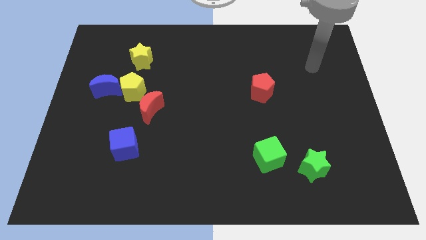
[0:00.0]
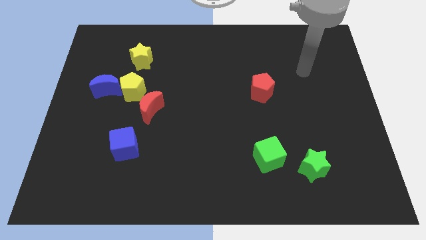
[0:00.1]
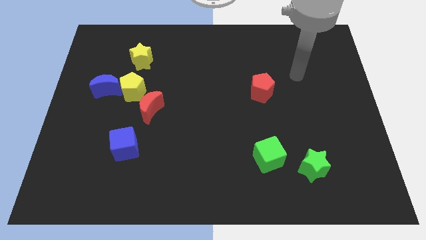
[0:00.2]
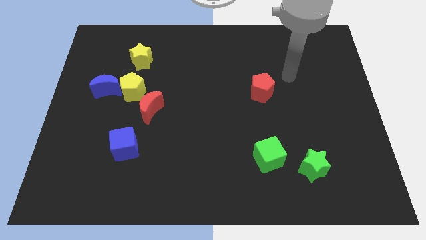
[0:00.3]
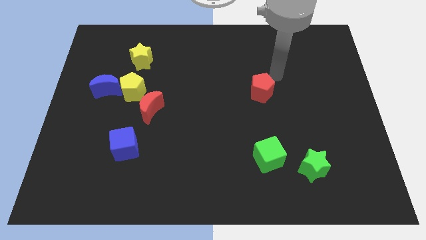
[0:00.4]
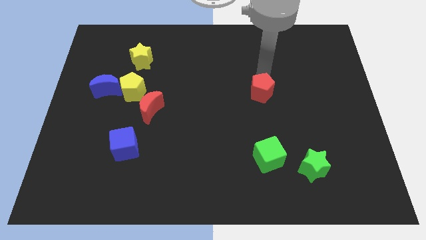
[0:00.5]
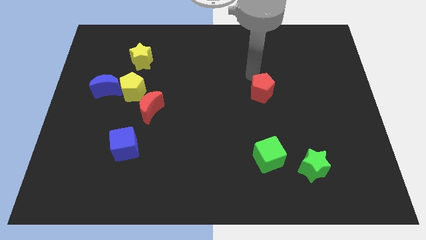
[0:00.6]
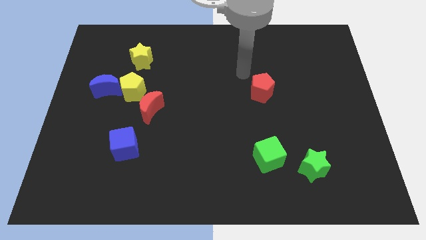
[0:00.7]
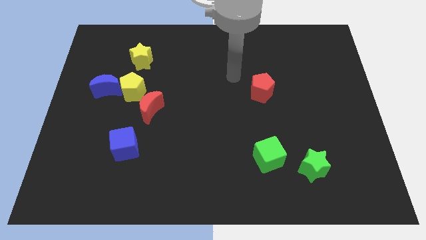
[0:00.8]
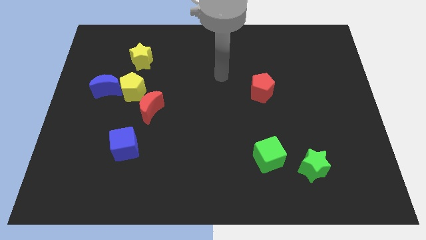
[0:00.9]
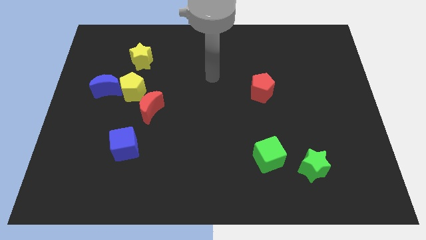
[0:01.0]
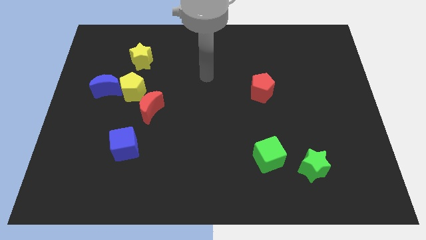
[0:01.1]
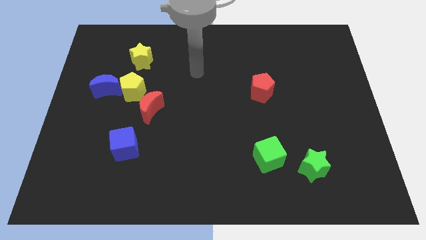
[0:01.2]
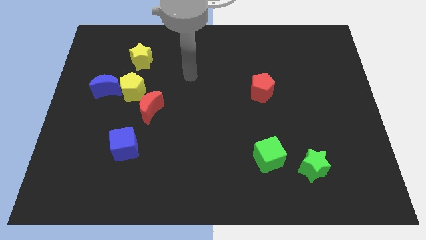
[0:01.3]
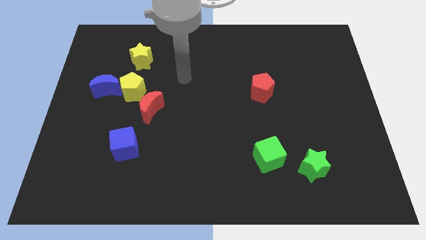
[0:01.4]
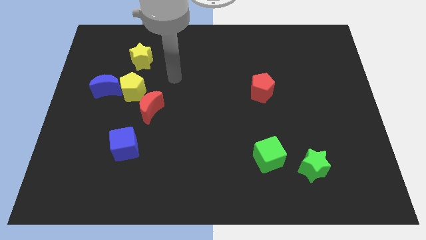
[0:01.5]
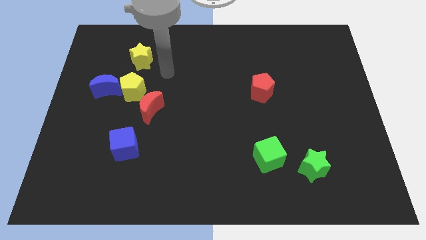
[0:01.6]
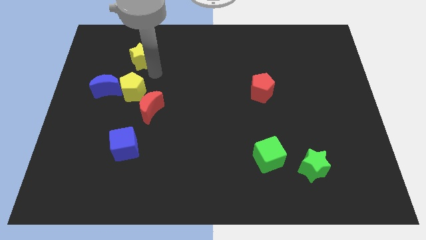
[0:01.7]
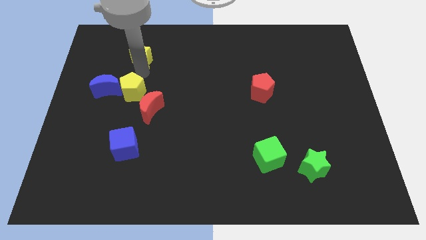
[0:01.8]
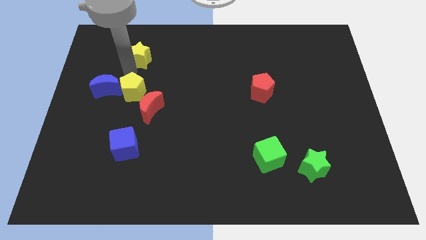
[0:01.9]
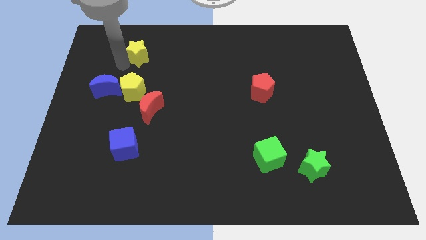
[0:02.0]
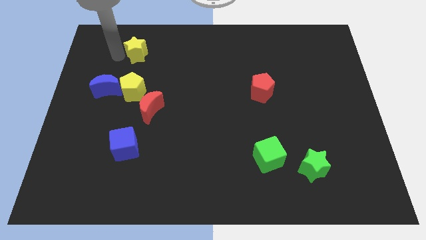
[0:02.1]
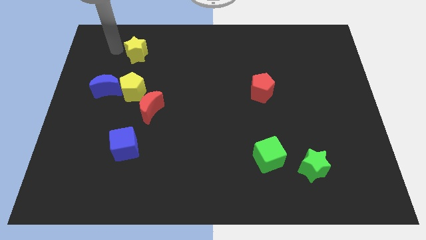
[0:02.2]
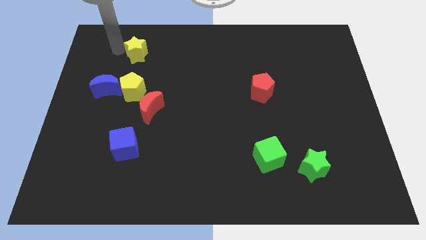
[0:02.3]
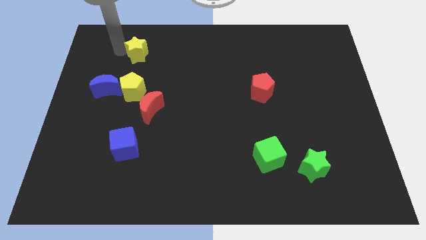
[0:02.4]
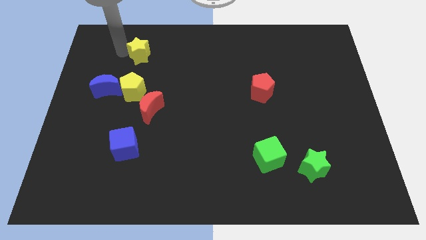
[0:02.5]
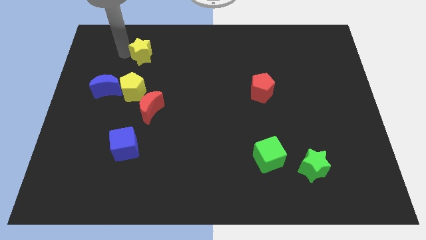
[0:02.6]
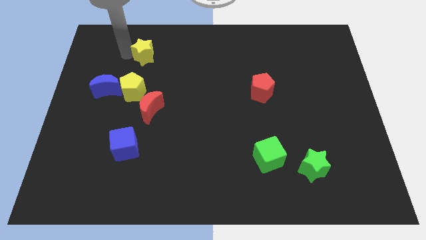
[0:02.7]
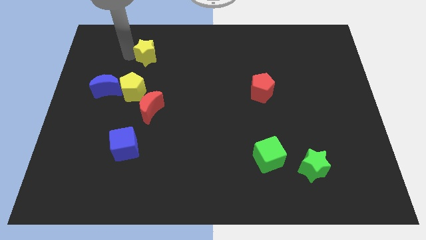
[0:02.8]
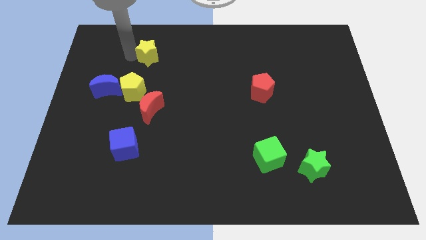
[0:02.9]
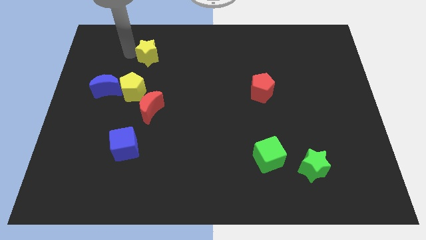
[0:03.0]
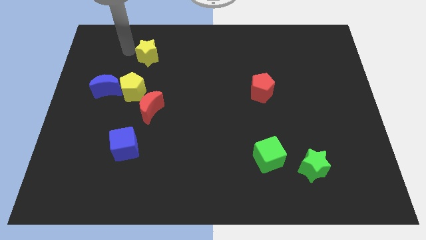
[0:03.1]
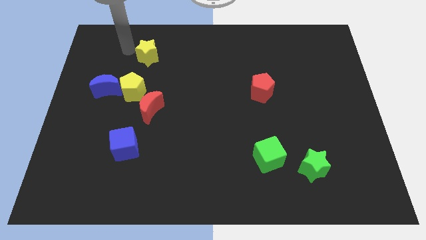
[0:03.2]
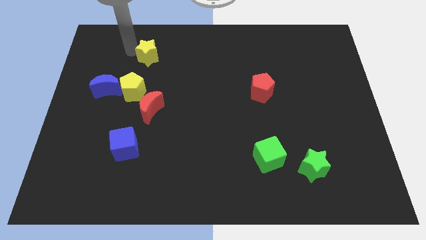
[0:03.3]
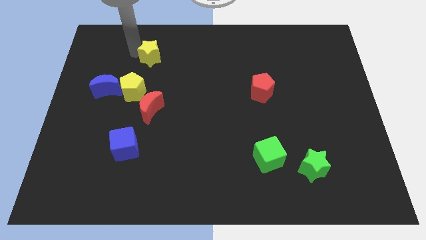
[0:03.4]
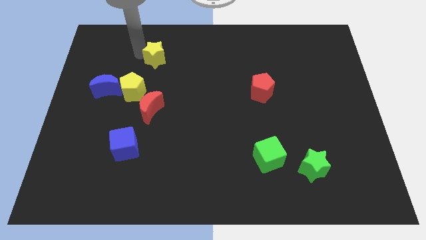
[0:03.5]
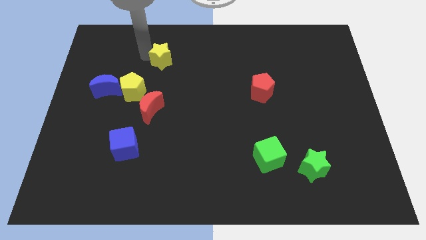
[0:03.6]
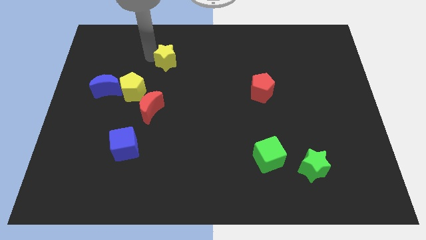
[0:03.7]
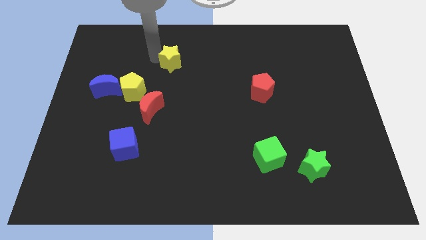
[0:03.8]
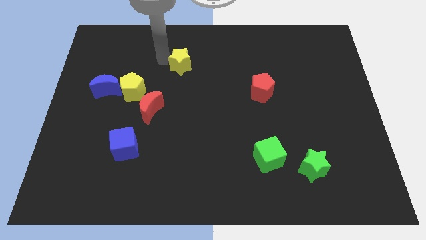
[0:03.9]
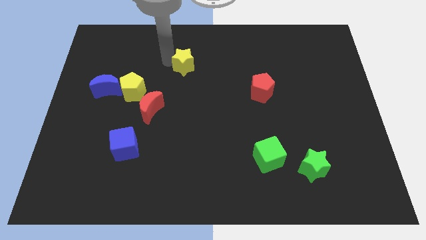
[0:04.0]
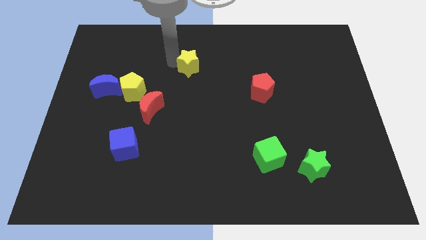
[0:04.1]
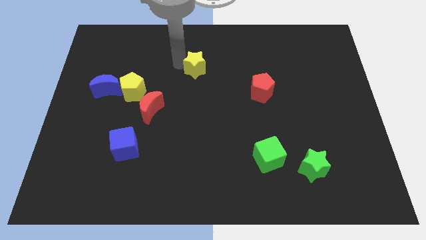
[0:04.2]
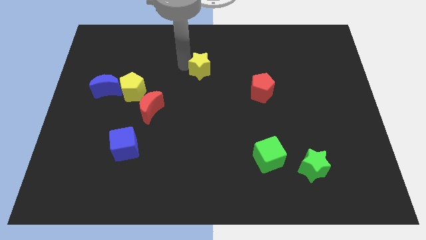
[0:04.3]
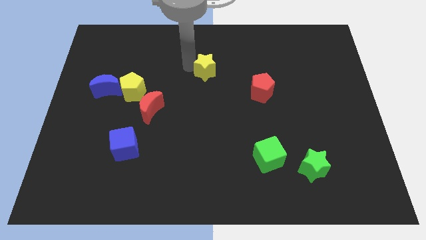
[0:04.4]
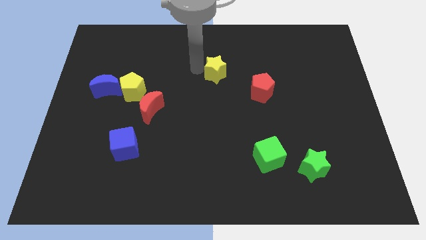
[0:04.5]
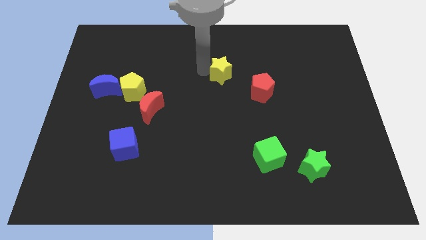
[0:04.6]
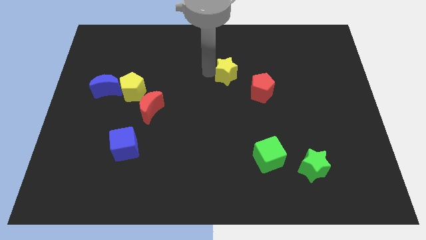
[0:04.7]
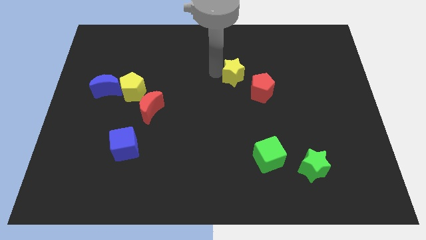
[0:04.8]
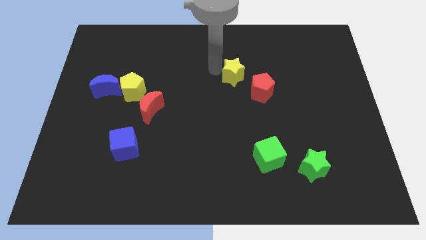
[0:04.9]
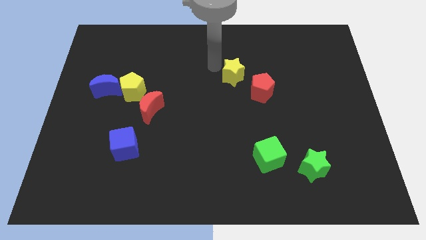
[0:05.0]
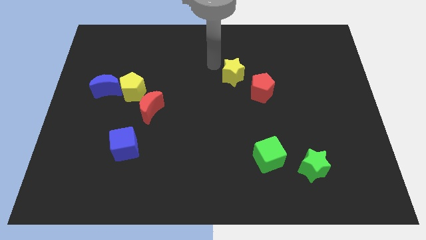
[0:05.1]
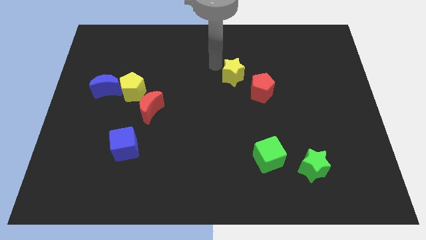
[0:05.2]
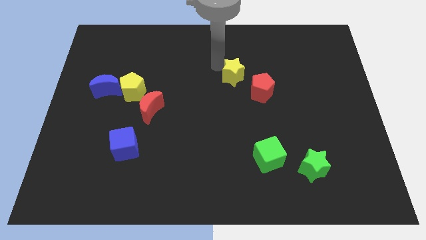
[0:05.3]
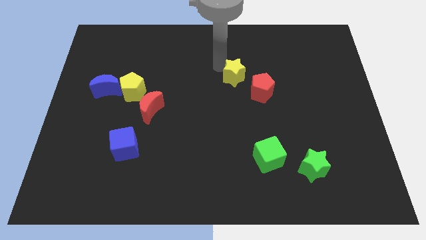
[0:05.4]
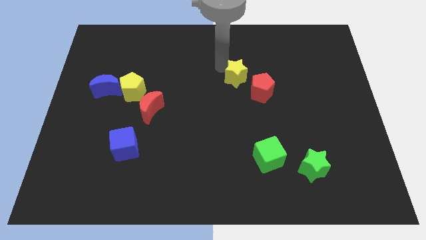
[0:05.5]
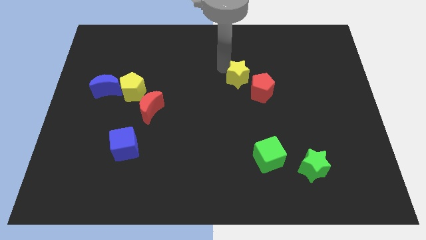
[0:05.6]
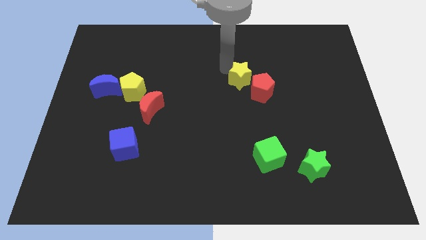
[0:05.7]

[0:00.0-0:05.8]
push the yellow star next to the red pentagon

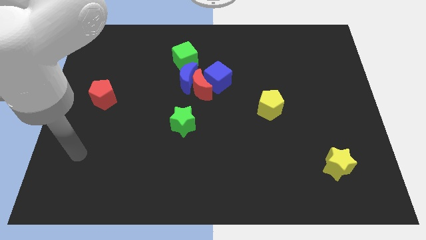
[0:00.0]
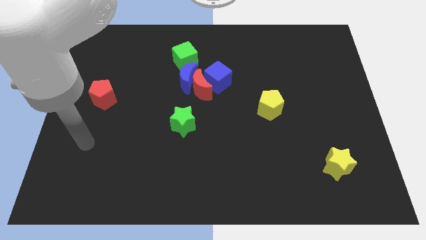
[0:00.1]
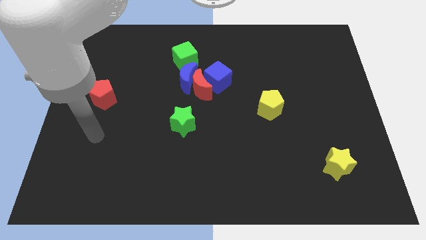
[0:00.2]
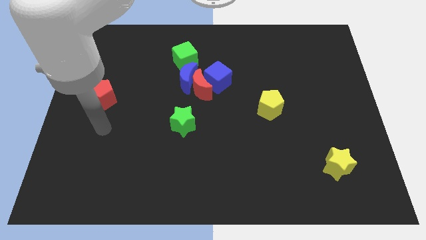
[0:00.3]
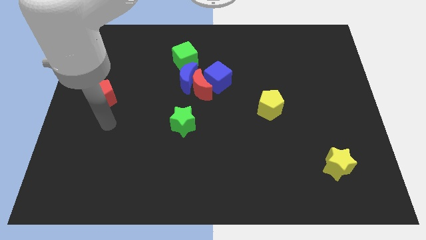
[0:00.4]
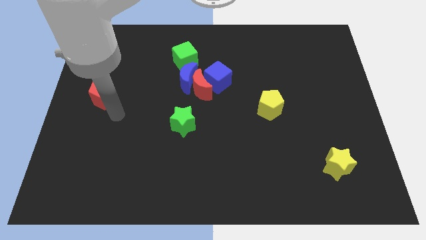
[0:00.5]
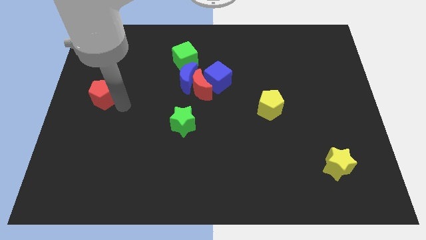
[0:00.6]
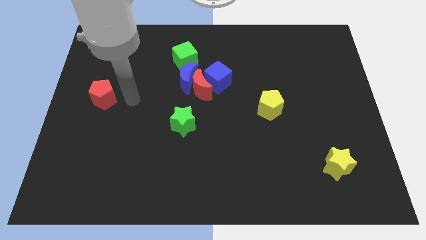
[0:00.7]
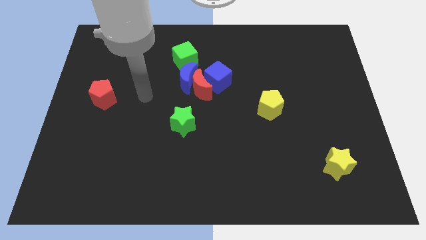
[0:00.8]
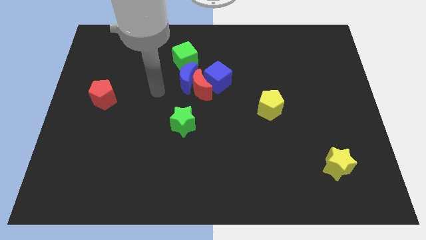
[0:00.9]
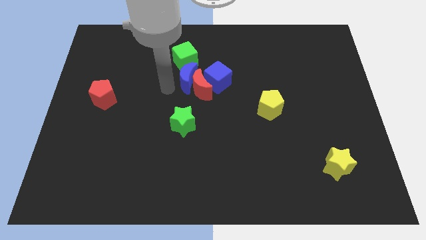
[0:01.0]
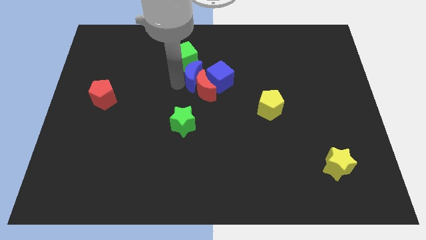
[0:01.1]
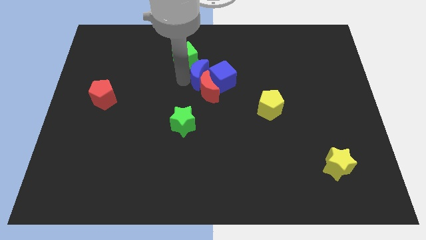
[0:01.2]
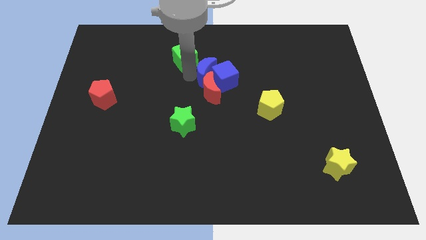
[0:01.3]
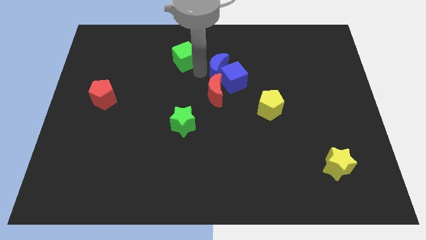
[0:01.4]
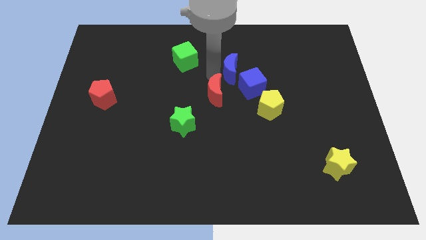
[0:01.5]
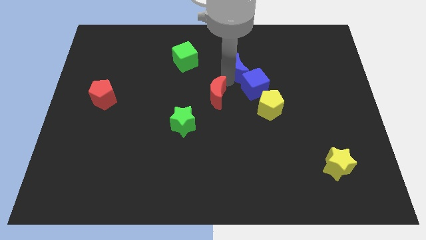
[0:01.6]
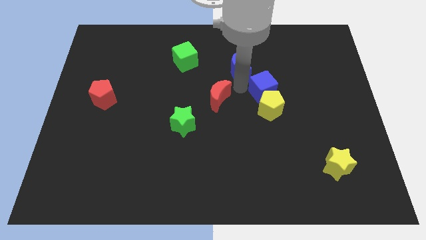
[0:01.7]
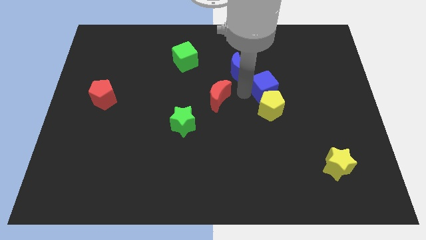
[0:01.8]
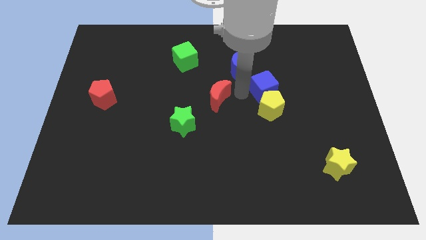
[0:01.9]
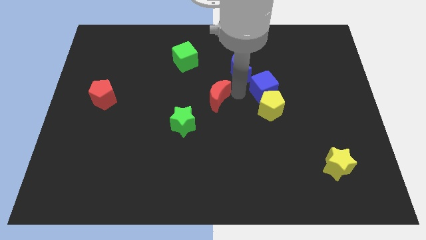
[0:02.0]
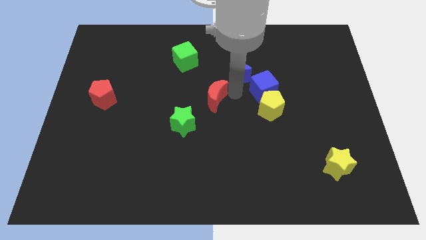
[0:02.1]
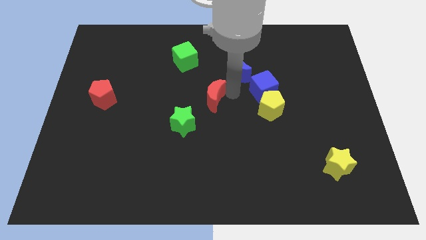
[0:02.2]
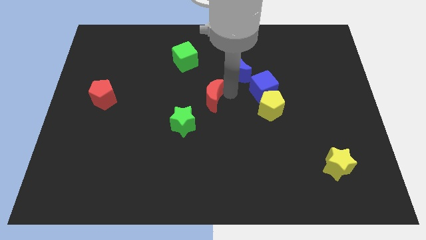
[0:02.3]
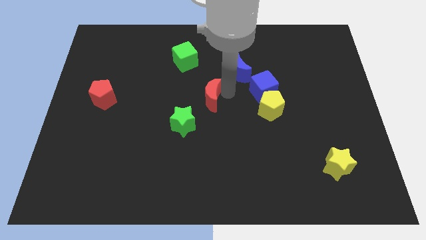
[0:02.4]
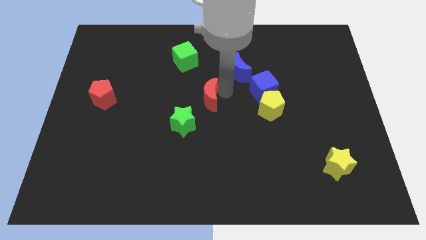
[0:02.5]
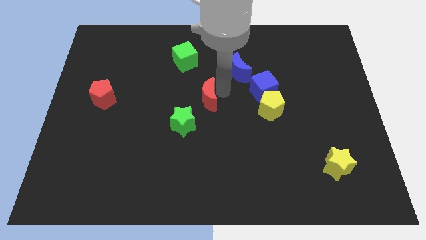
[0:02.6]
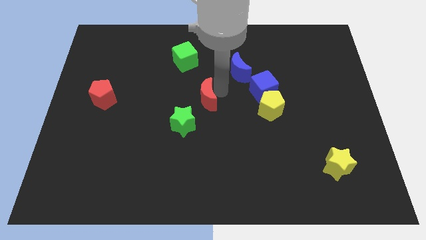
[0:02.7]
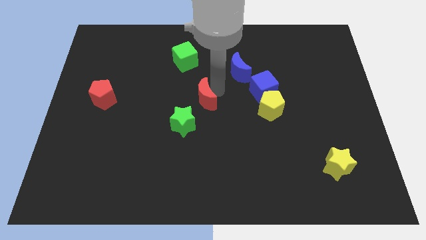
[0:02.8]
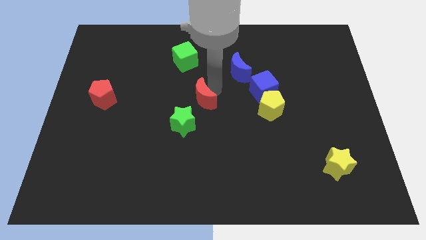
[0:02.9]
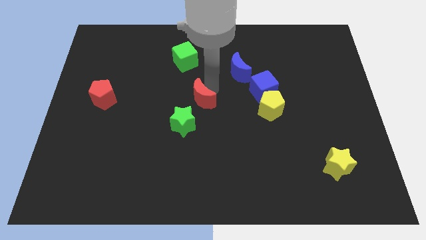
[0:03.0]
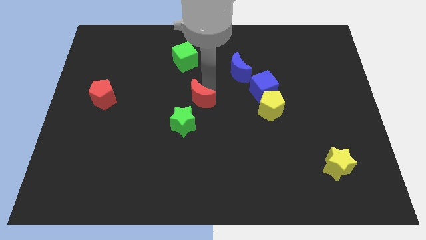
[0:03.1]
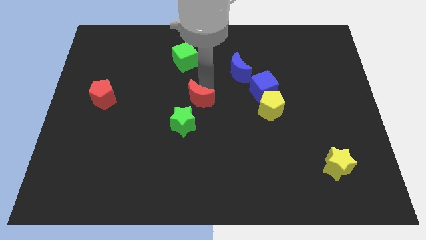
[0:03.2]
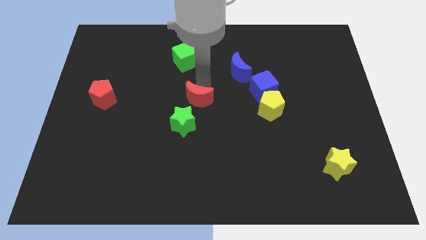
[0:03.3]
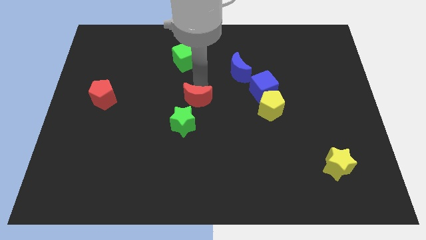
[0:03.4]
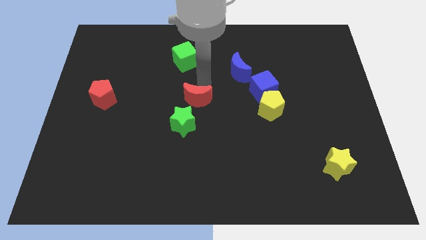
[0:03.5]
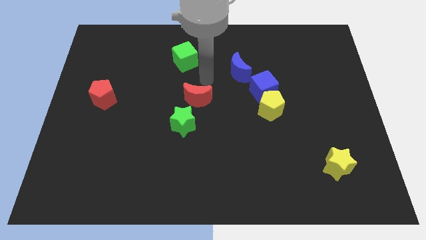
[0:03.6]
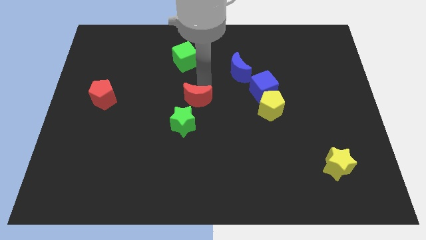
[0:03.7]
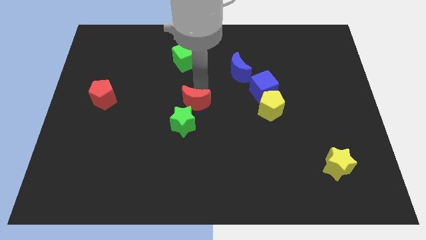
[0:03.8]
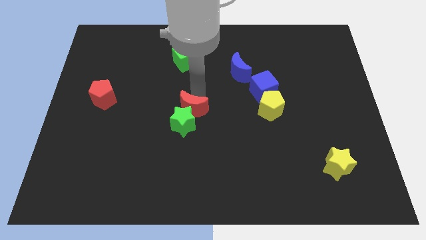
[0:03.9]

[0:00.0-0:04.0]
put the red moon to the green star
